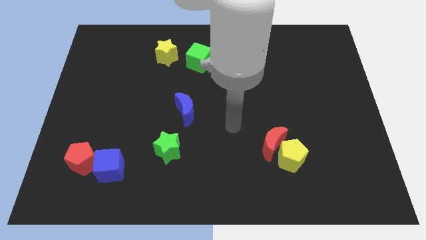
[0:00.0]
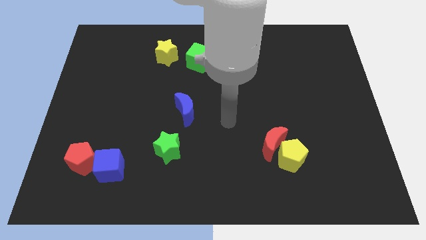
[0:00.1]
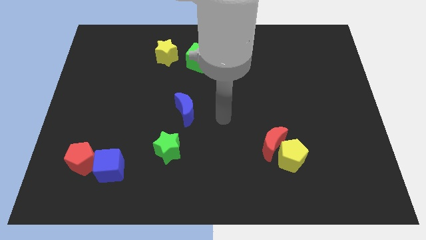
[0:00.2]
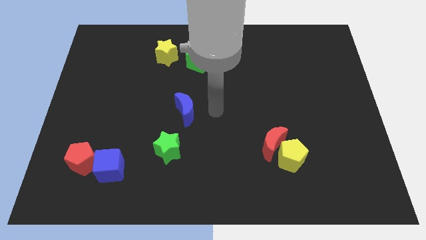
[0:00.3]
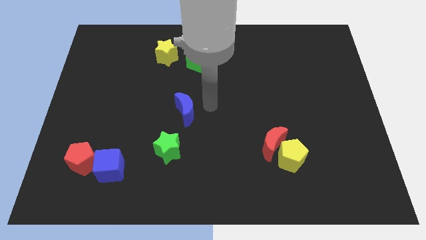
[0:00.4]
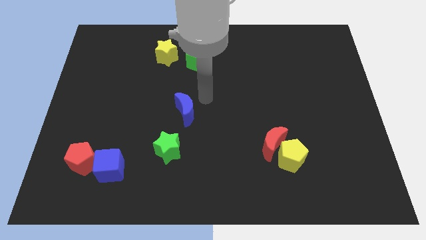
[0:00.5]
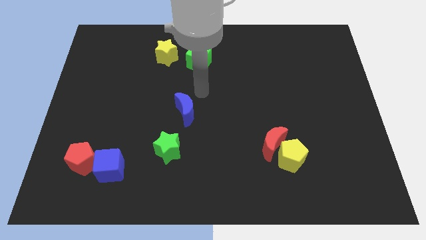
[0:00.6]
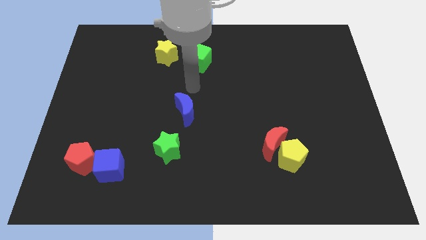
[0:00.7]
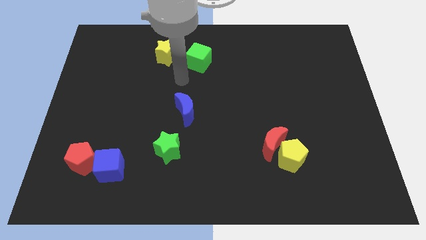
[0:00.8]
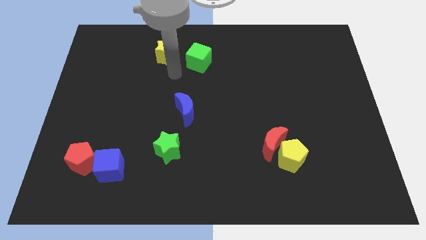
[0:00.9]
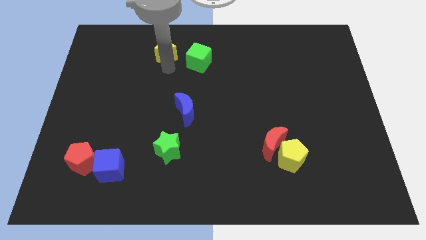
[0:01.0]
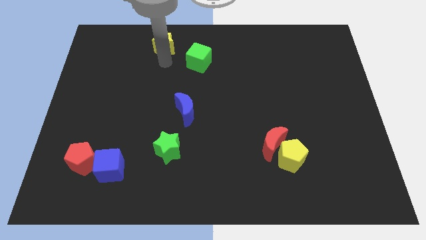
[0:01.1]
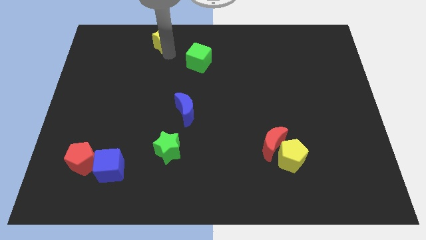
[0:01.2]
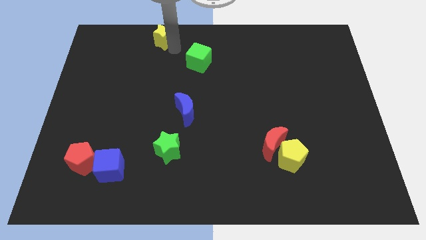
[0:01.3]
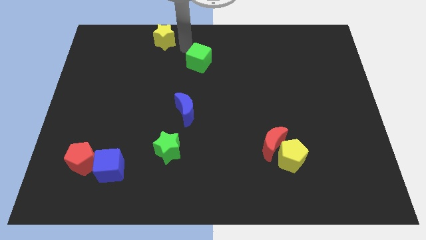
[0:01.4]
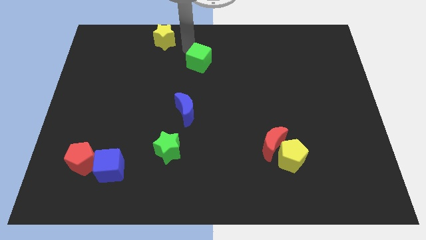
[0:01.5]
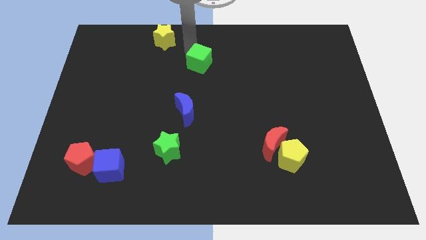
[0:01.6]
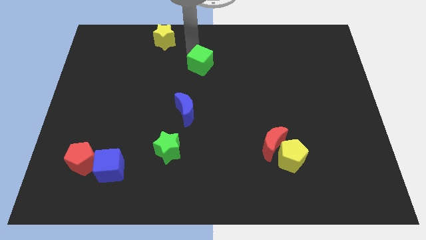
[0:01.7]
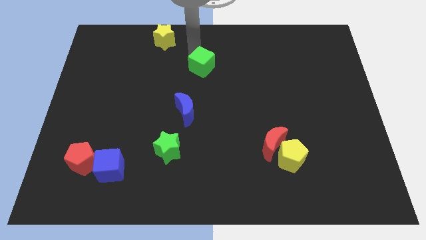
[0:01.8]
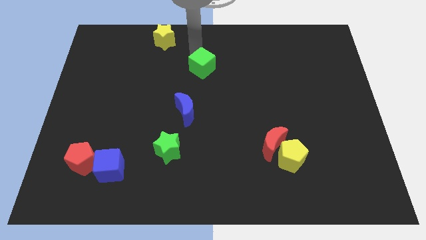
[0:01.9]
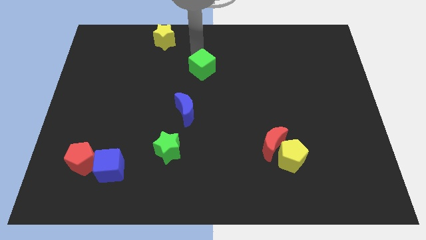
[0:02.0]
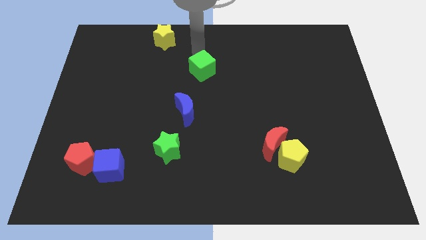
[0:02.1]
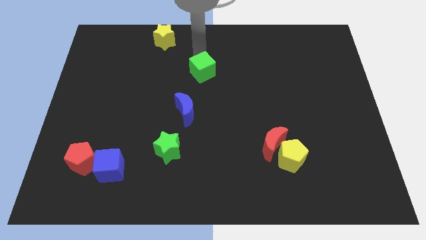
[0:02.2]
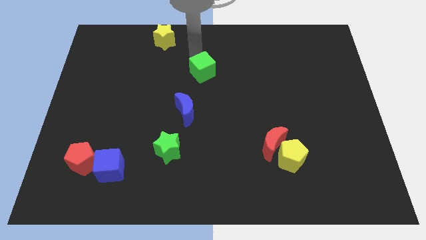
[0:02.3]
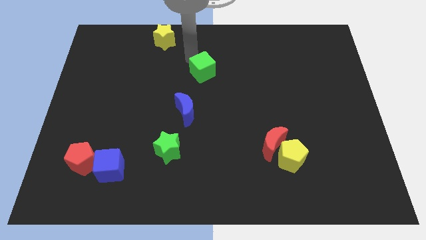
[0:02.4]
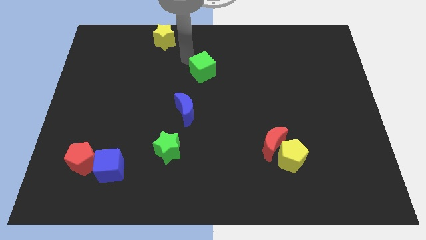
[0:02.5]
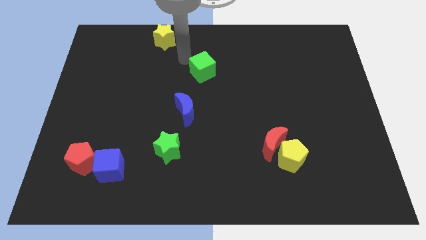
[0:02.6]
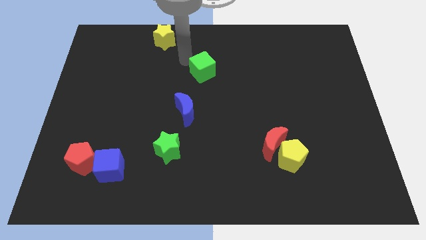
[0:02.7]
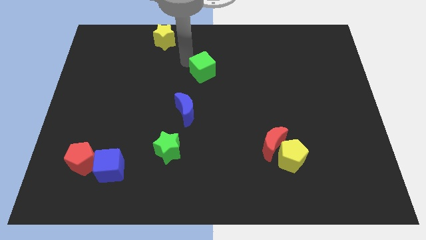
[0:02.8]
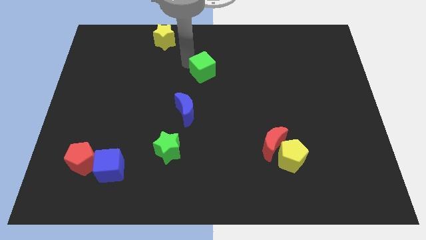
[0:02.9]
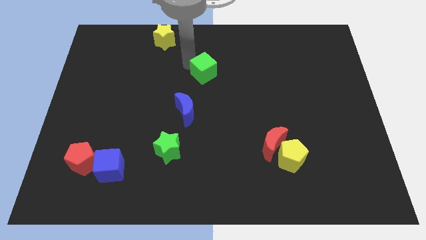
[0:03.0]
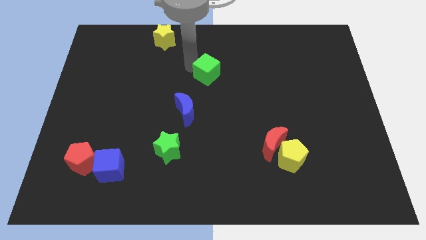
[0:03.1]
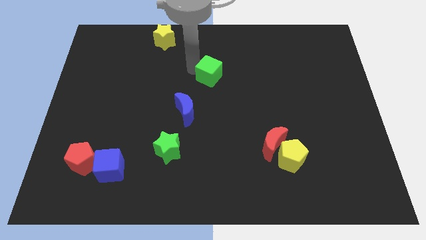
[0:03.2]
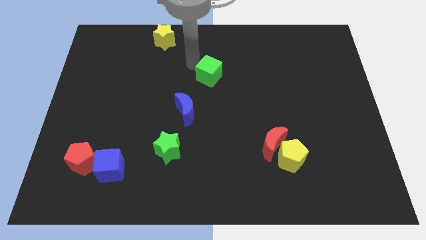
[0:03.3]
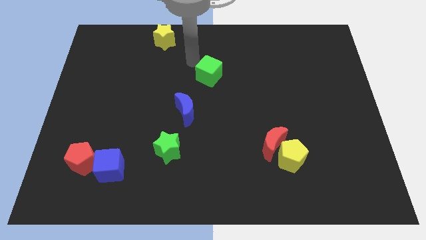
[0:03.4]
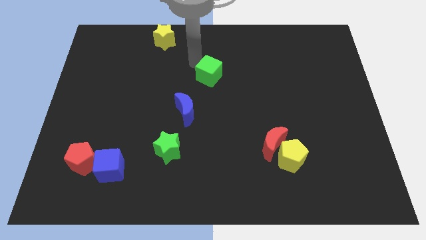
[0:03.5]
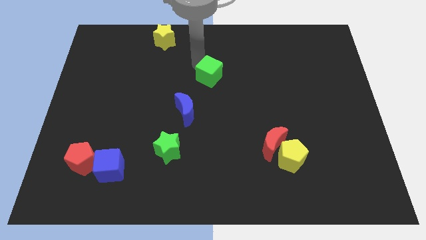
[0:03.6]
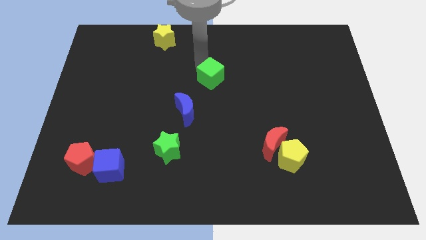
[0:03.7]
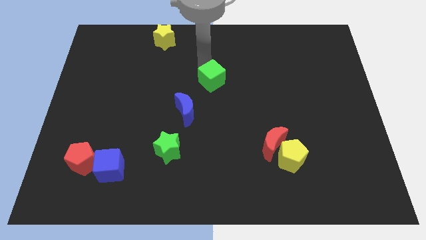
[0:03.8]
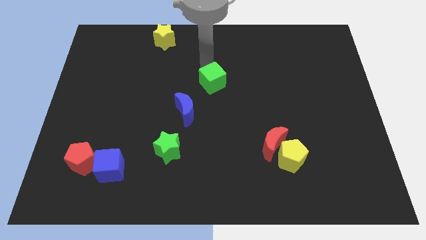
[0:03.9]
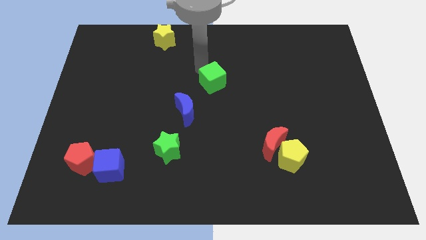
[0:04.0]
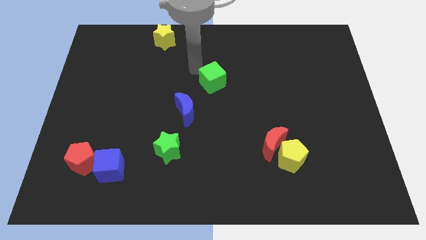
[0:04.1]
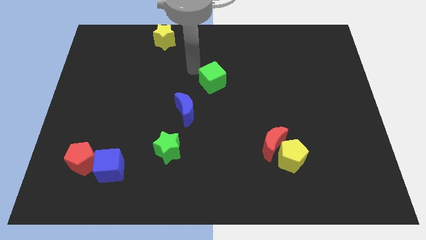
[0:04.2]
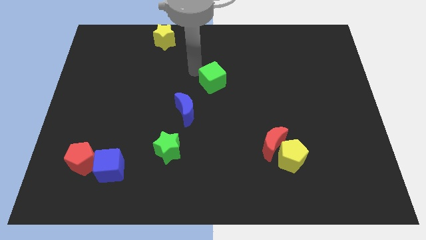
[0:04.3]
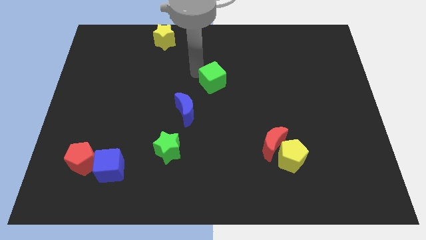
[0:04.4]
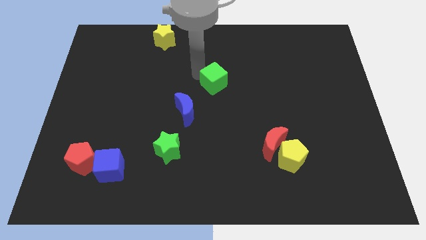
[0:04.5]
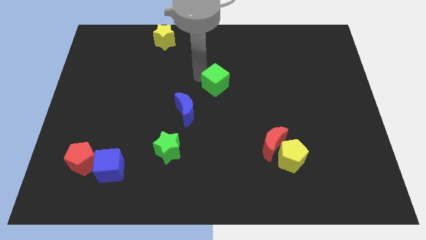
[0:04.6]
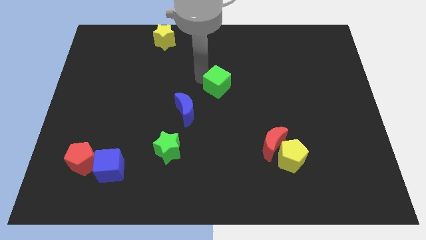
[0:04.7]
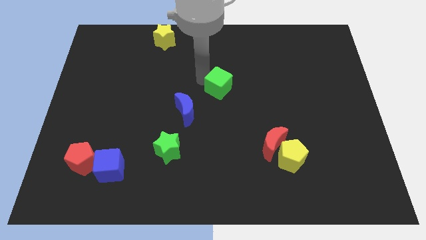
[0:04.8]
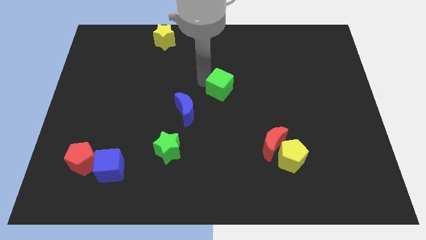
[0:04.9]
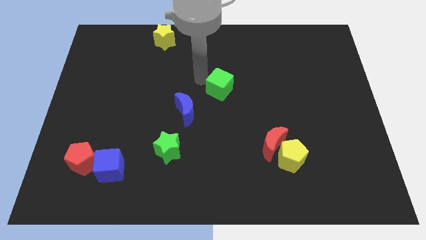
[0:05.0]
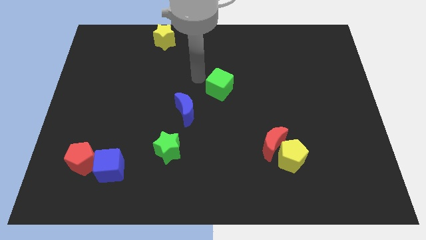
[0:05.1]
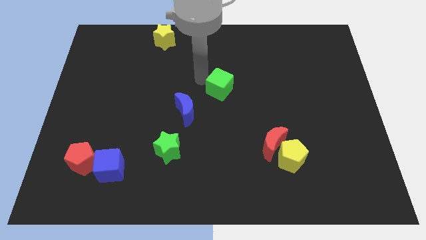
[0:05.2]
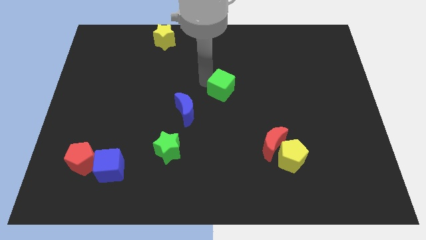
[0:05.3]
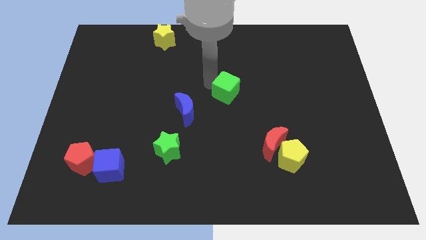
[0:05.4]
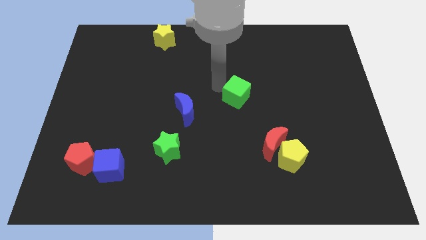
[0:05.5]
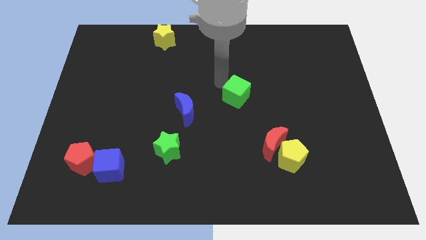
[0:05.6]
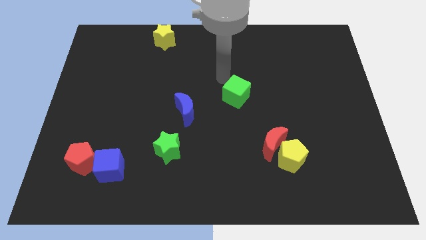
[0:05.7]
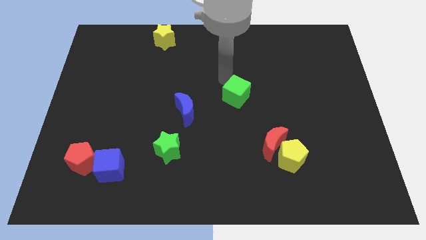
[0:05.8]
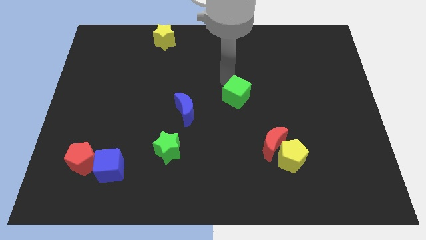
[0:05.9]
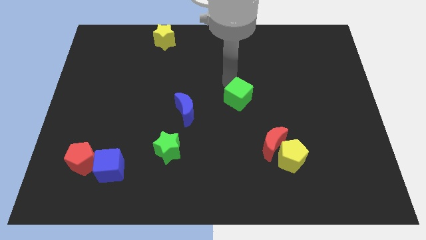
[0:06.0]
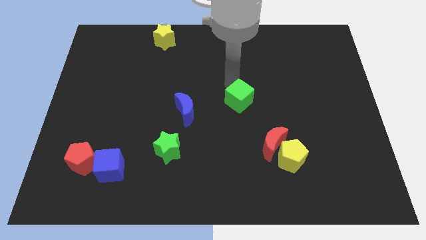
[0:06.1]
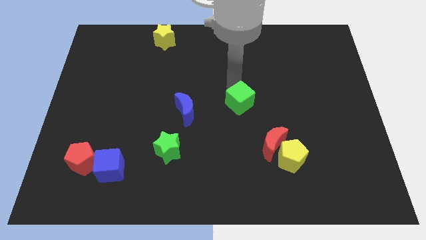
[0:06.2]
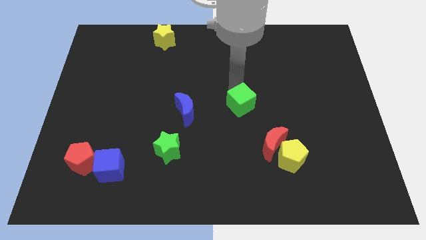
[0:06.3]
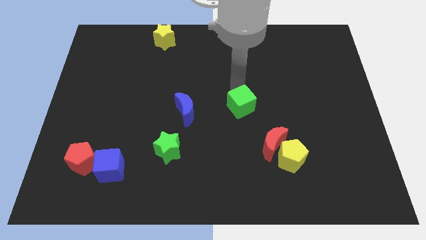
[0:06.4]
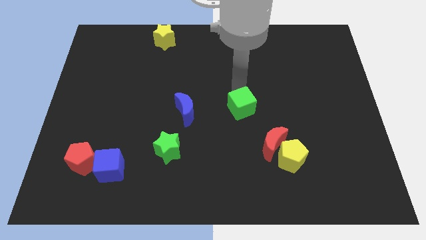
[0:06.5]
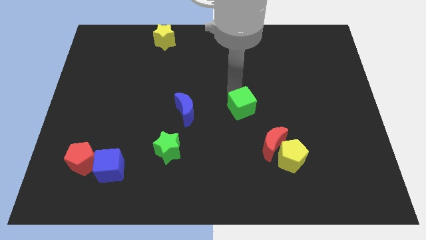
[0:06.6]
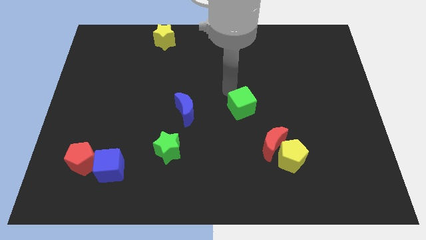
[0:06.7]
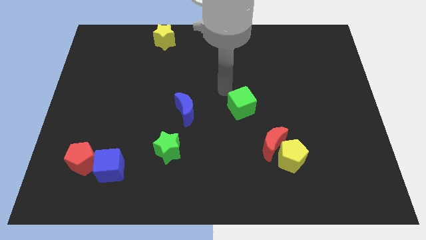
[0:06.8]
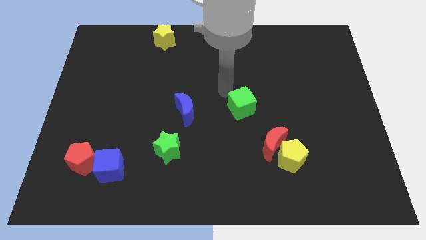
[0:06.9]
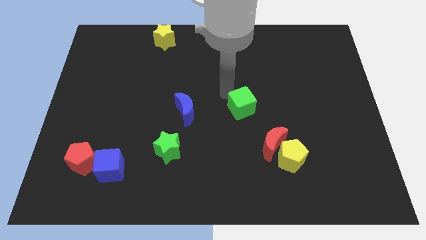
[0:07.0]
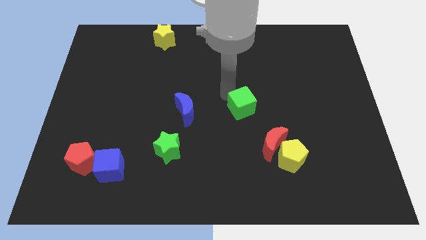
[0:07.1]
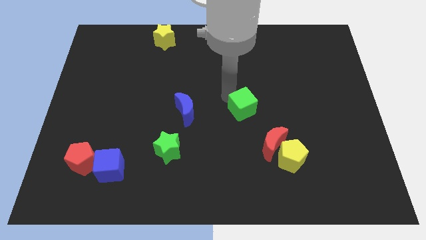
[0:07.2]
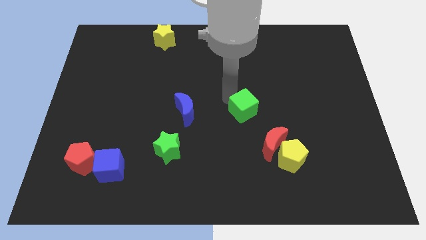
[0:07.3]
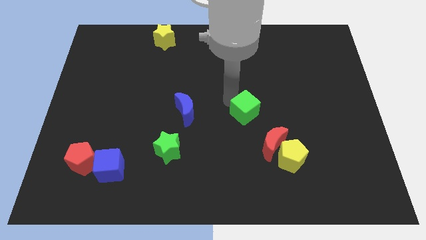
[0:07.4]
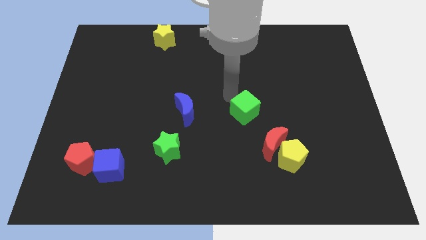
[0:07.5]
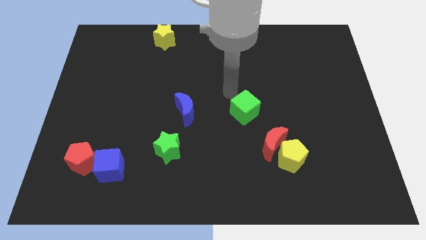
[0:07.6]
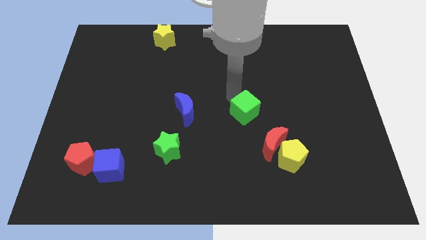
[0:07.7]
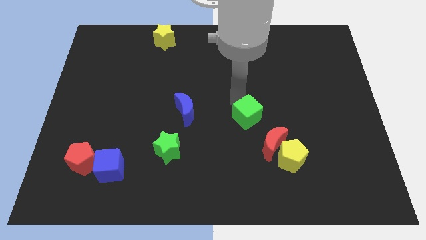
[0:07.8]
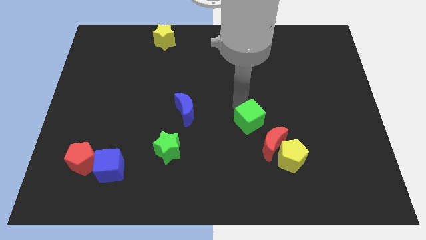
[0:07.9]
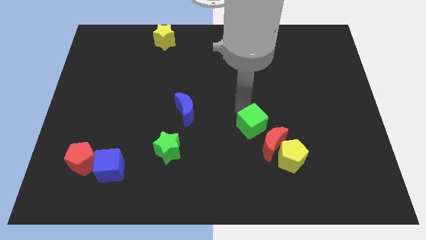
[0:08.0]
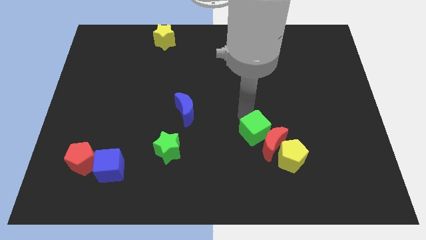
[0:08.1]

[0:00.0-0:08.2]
slide the green cube next to the red moon
